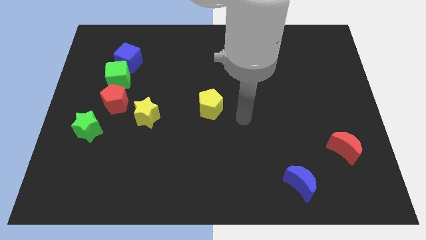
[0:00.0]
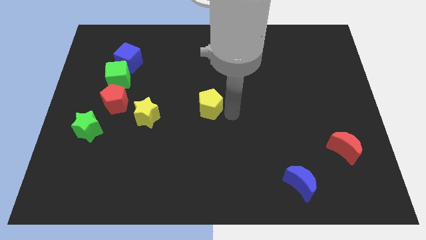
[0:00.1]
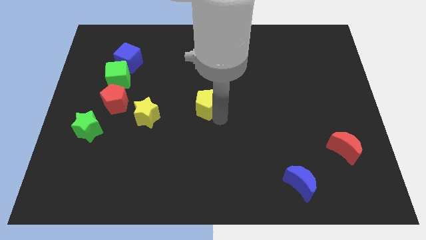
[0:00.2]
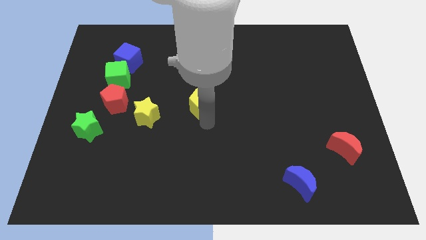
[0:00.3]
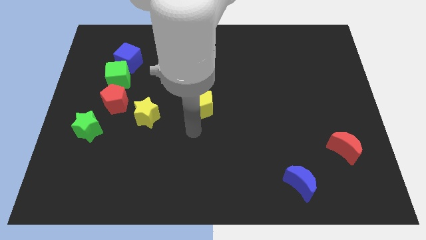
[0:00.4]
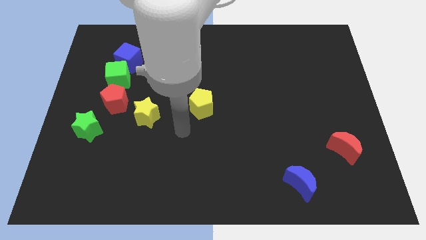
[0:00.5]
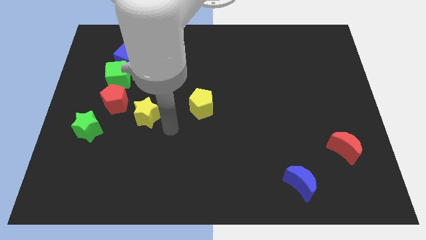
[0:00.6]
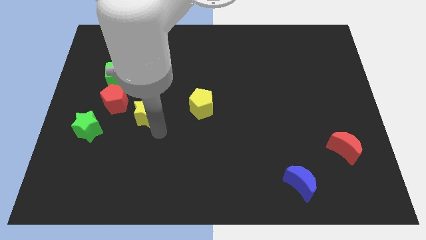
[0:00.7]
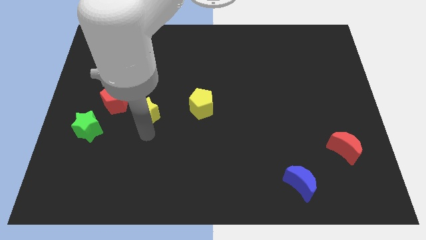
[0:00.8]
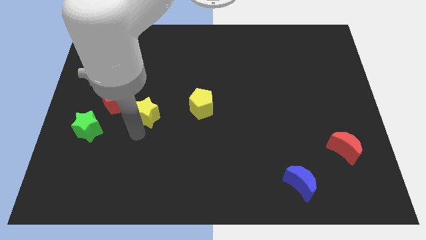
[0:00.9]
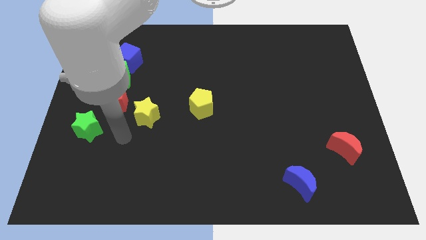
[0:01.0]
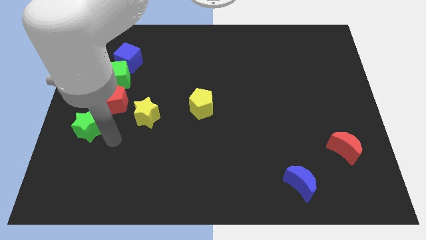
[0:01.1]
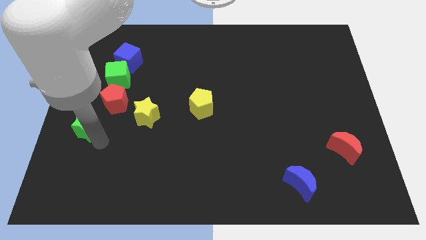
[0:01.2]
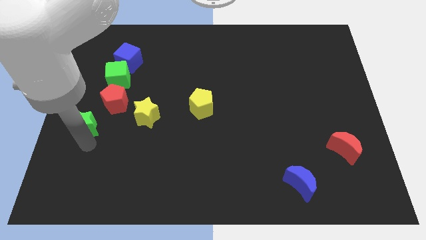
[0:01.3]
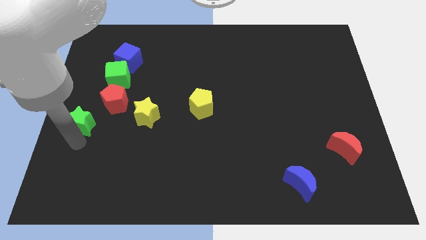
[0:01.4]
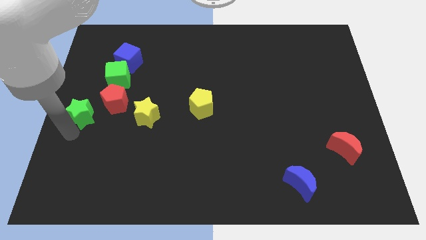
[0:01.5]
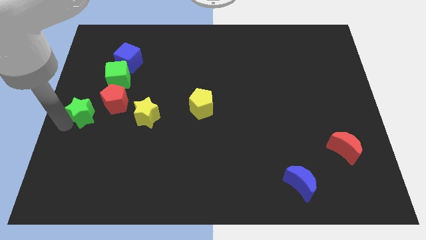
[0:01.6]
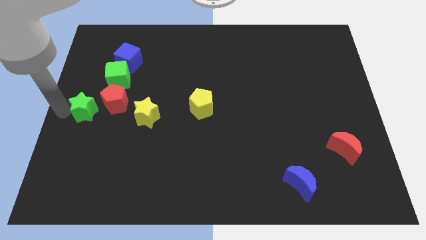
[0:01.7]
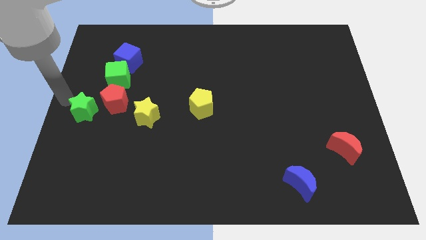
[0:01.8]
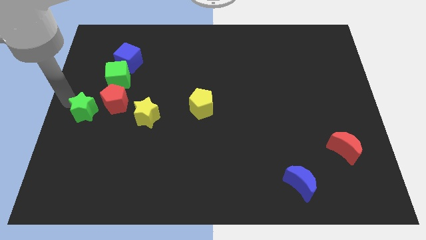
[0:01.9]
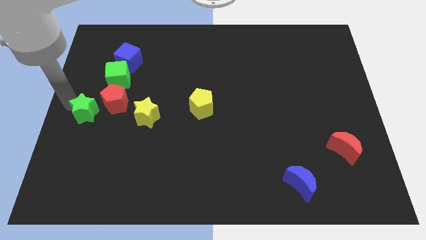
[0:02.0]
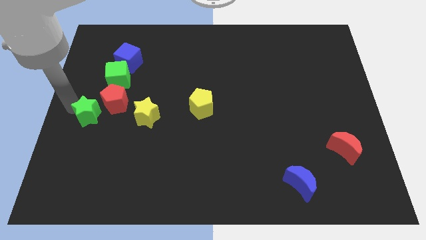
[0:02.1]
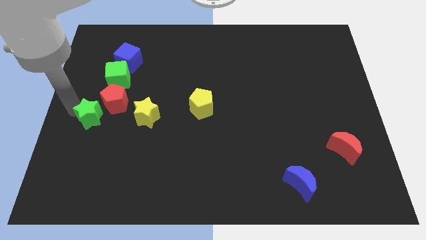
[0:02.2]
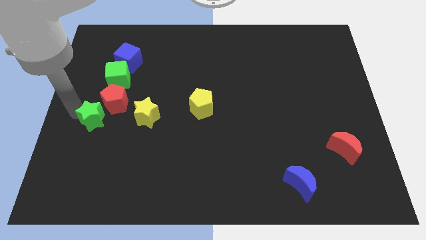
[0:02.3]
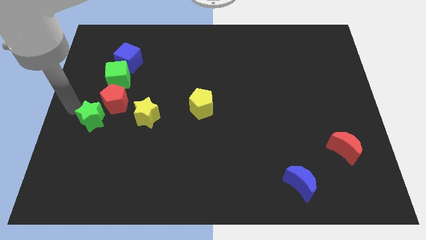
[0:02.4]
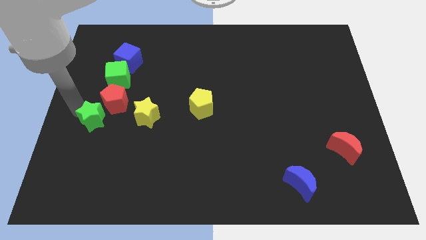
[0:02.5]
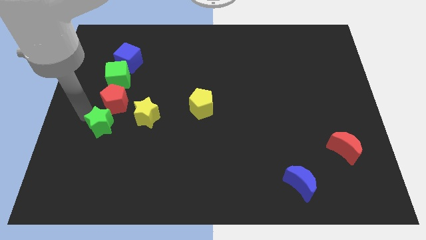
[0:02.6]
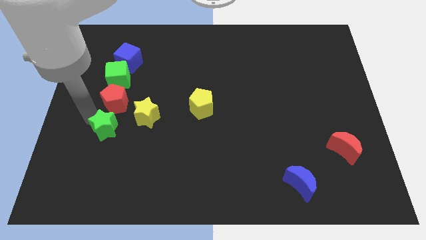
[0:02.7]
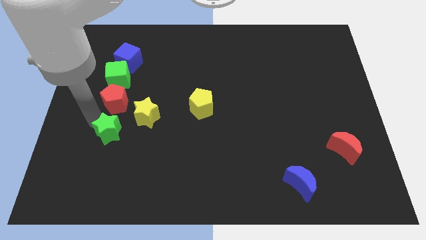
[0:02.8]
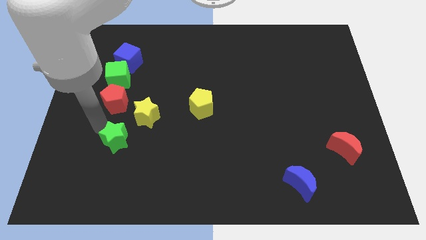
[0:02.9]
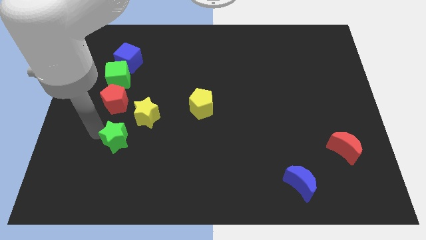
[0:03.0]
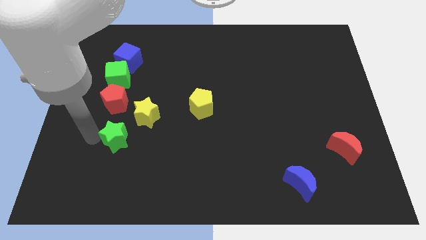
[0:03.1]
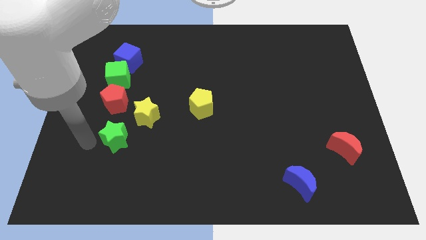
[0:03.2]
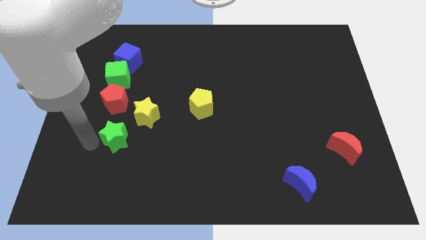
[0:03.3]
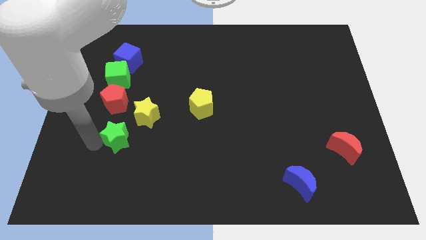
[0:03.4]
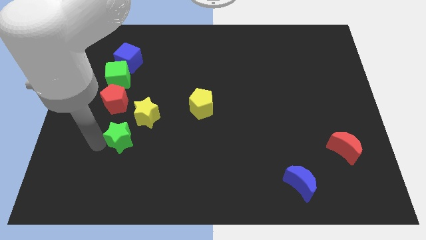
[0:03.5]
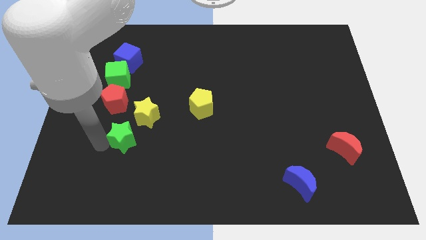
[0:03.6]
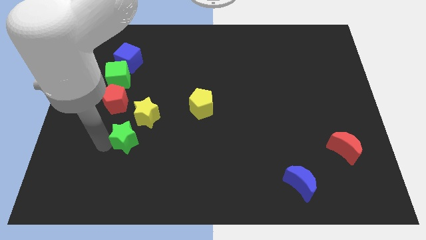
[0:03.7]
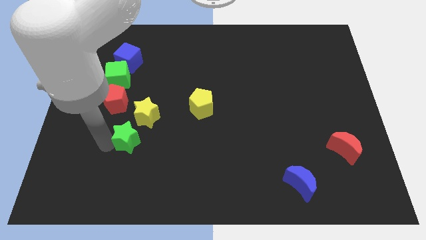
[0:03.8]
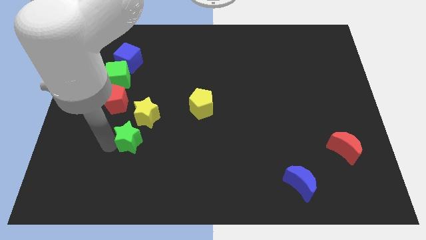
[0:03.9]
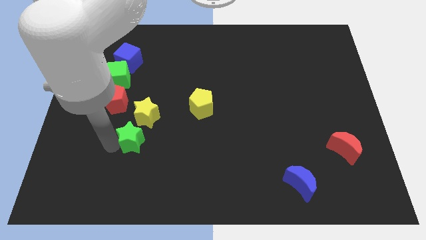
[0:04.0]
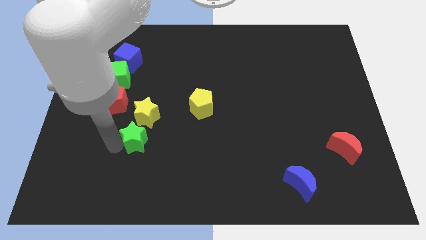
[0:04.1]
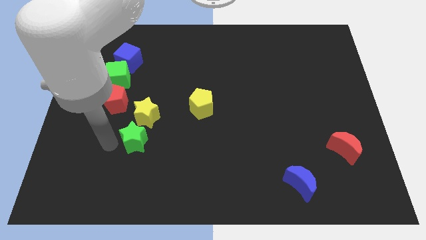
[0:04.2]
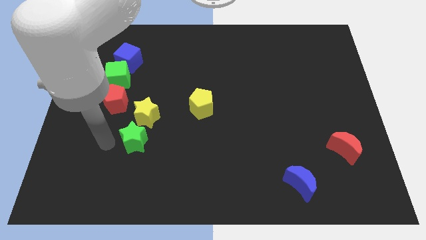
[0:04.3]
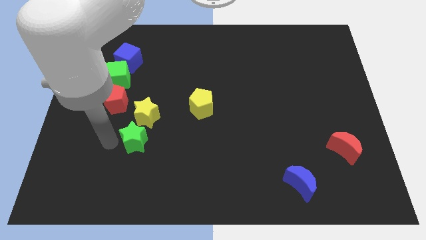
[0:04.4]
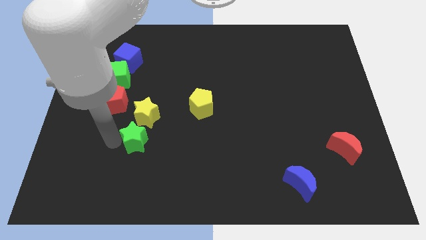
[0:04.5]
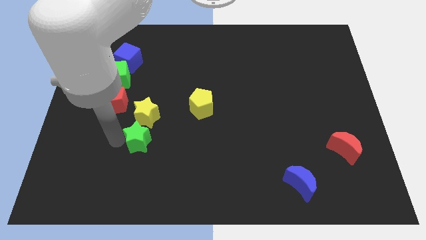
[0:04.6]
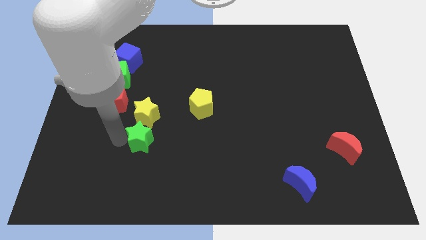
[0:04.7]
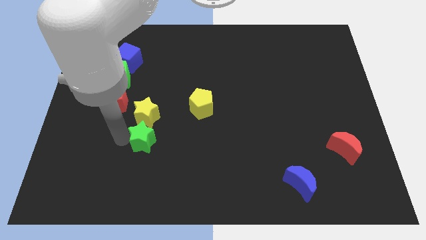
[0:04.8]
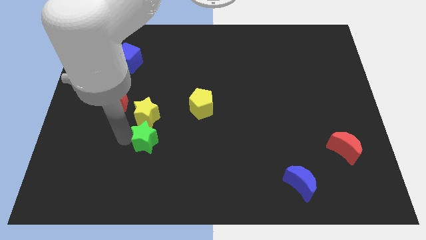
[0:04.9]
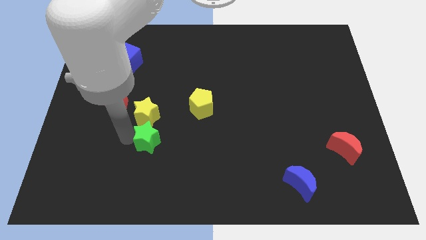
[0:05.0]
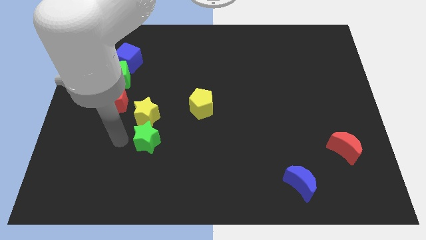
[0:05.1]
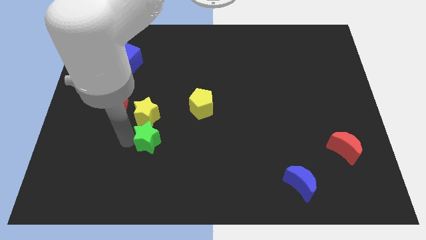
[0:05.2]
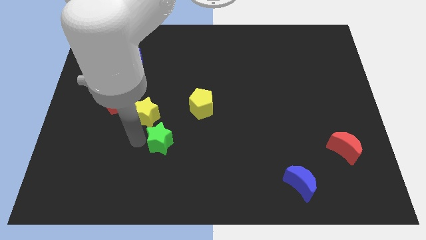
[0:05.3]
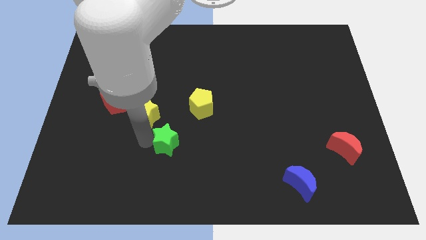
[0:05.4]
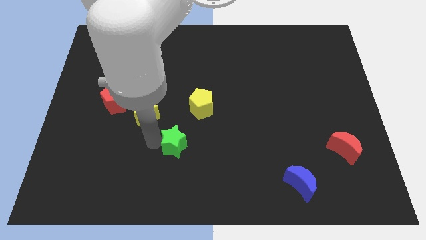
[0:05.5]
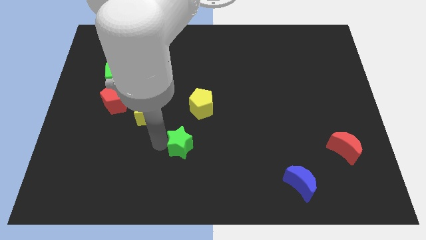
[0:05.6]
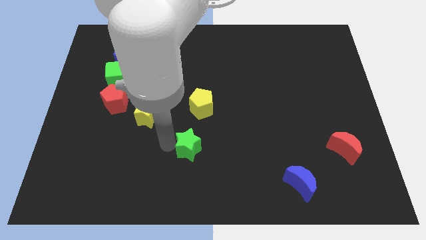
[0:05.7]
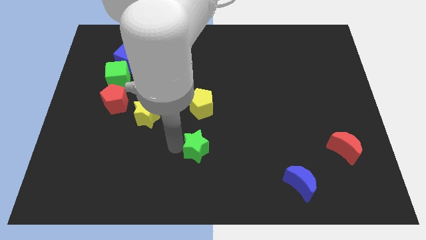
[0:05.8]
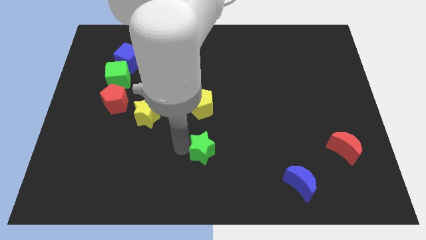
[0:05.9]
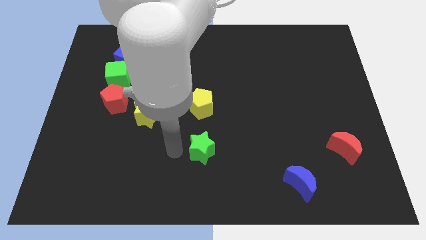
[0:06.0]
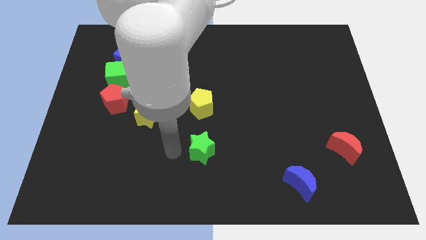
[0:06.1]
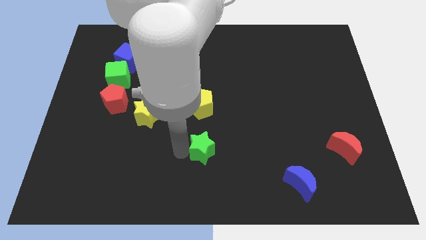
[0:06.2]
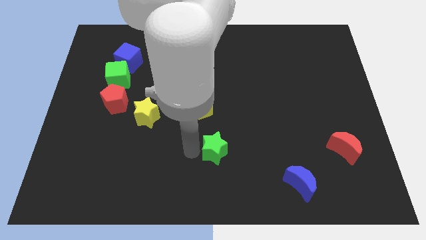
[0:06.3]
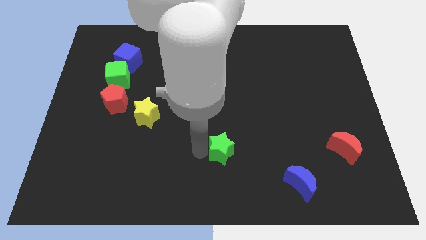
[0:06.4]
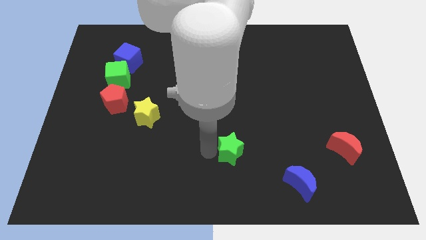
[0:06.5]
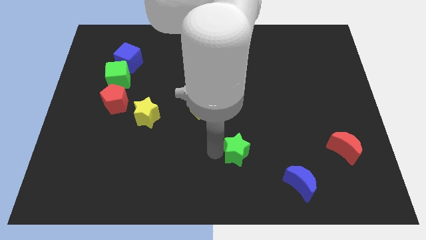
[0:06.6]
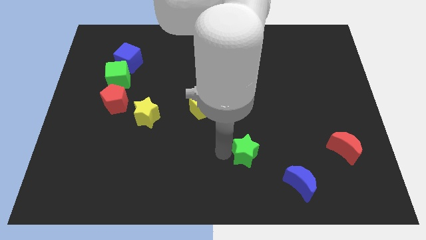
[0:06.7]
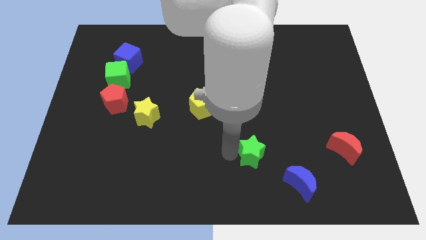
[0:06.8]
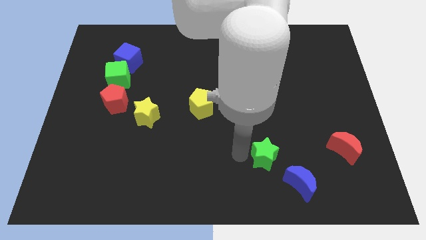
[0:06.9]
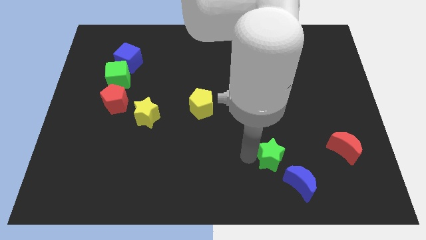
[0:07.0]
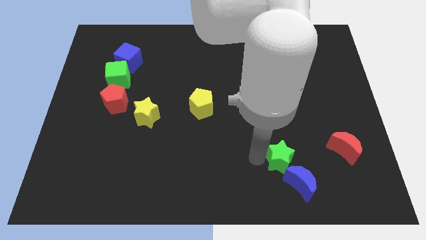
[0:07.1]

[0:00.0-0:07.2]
slide the green star to the left side of the red moon

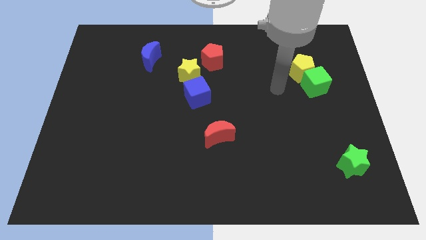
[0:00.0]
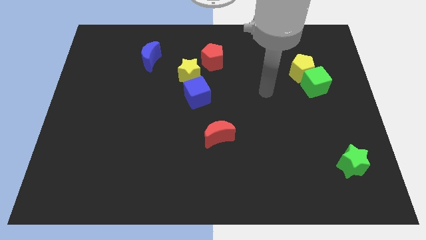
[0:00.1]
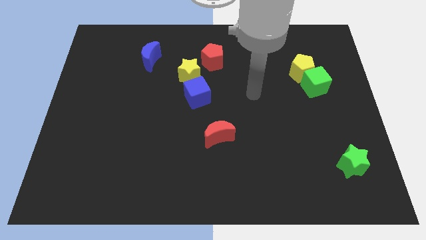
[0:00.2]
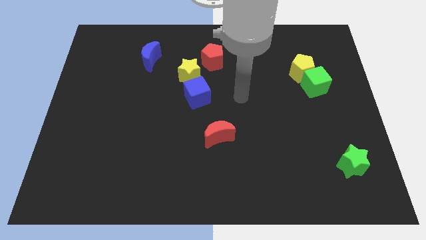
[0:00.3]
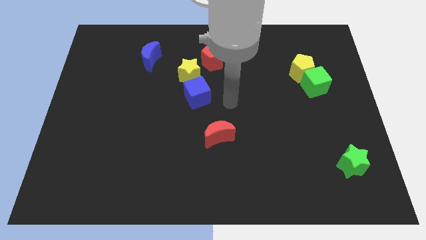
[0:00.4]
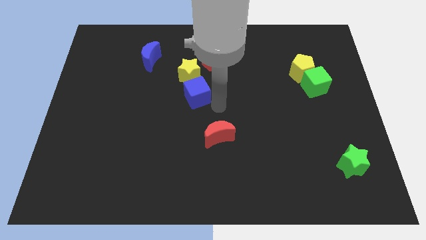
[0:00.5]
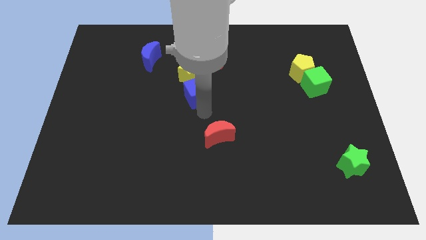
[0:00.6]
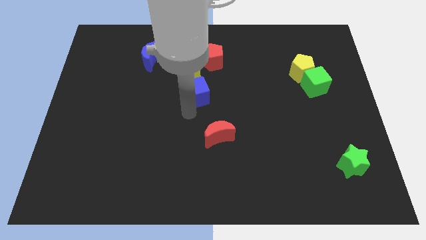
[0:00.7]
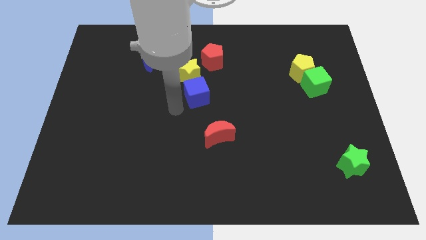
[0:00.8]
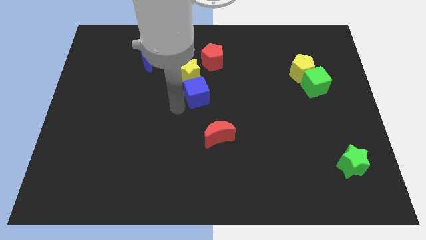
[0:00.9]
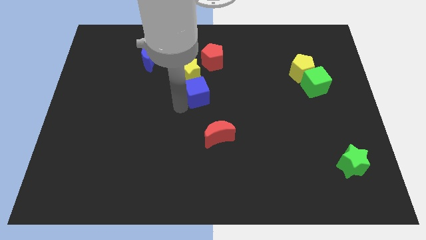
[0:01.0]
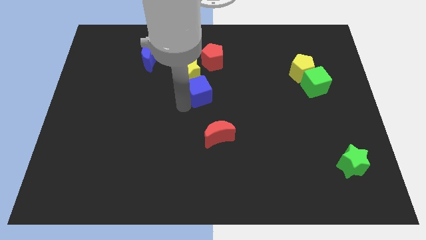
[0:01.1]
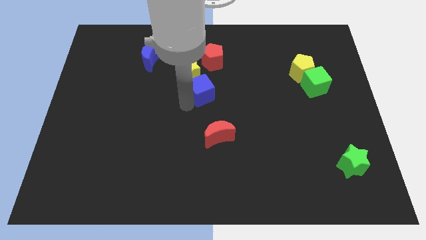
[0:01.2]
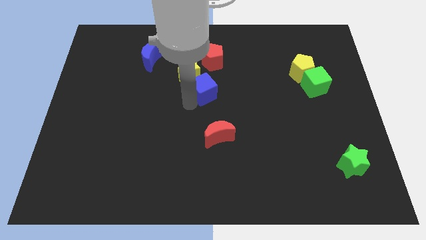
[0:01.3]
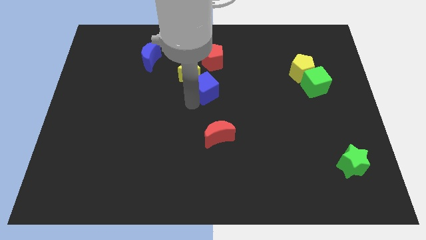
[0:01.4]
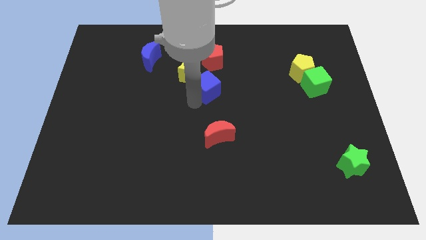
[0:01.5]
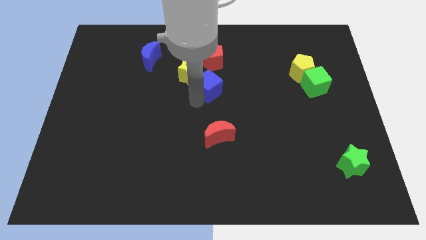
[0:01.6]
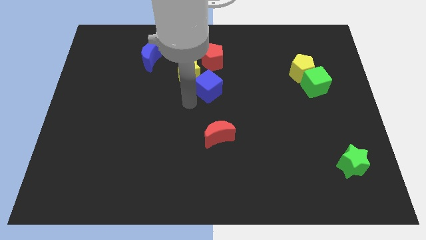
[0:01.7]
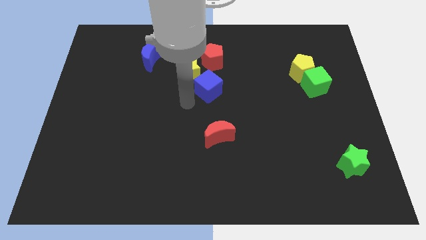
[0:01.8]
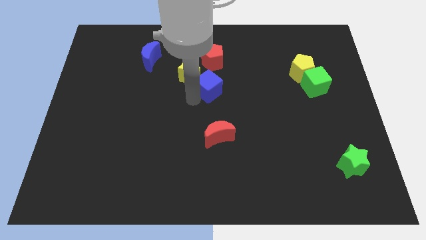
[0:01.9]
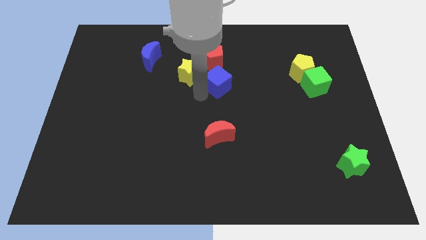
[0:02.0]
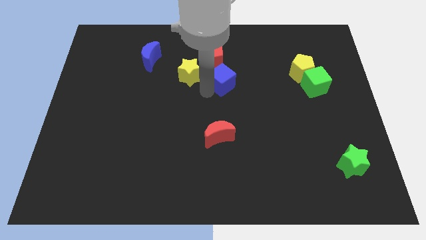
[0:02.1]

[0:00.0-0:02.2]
put the blue cube to the bottom right of the red pentagon
